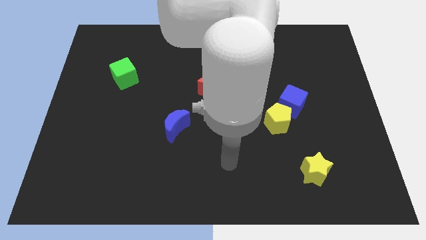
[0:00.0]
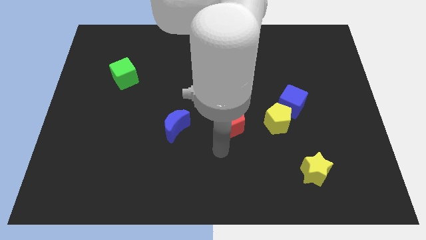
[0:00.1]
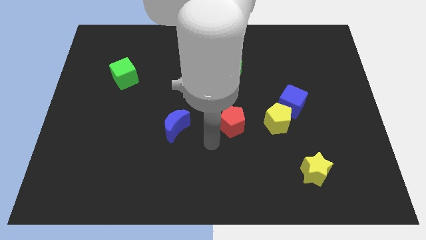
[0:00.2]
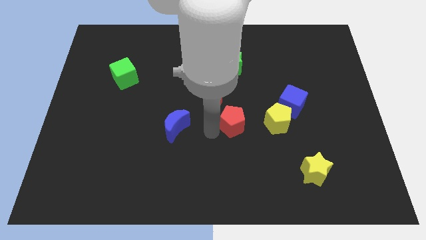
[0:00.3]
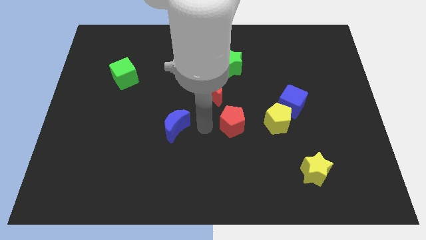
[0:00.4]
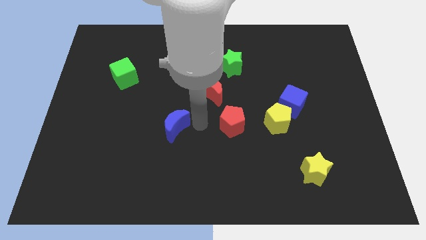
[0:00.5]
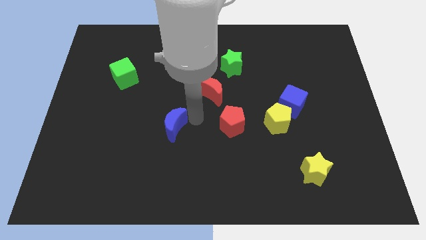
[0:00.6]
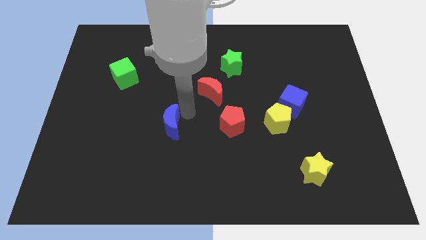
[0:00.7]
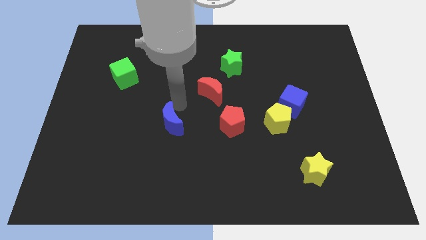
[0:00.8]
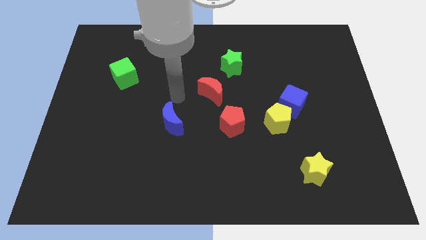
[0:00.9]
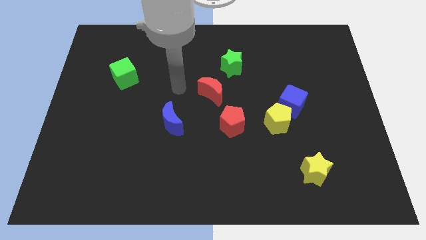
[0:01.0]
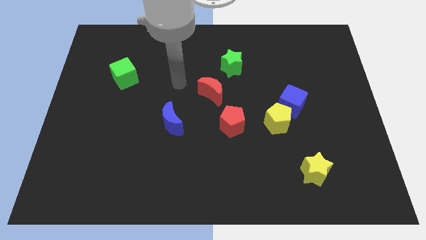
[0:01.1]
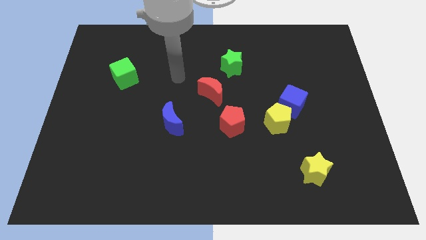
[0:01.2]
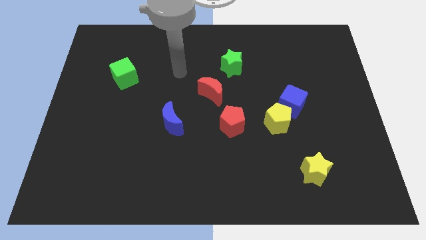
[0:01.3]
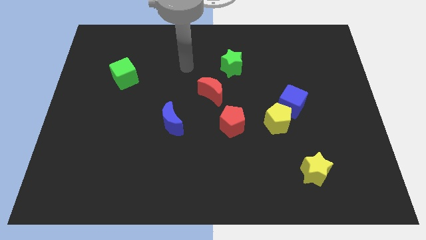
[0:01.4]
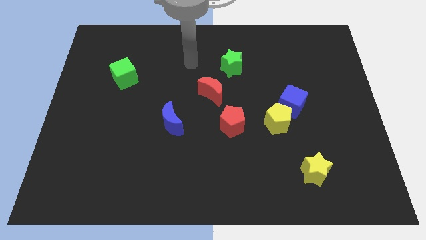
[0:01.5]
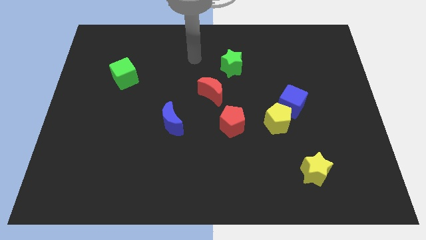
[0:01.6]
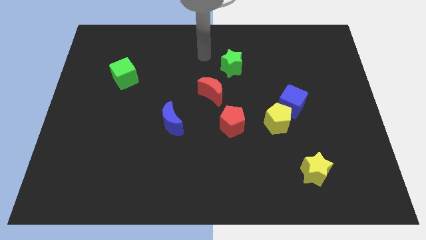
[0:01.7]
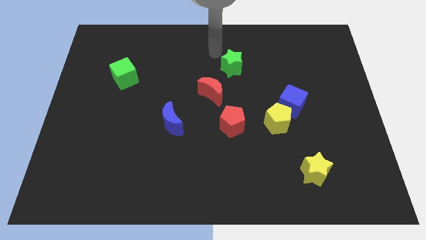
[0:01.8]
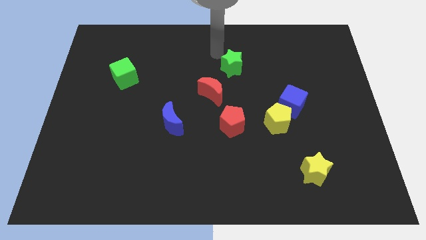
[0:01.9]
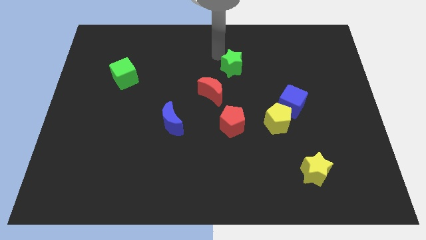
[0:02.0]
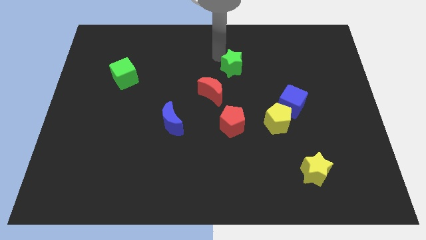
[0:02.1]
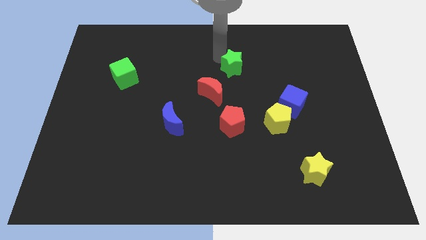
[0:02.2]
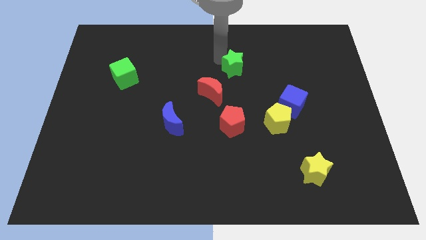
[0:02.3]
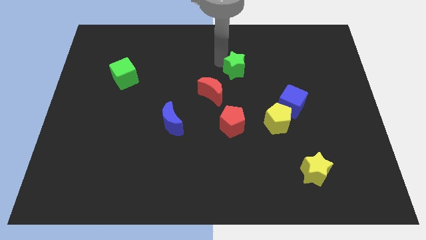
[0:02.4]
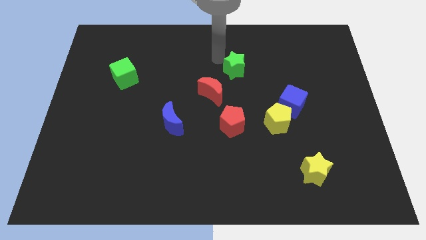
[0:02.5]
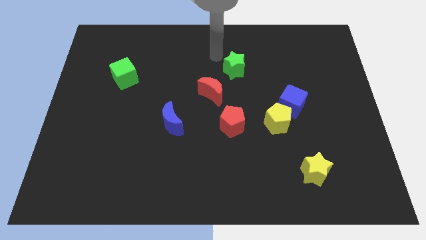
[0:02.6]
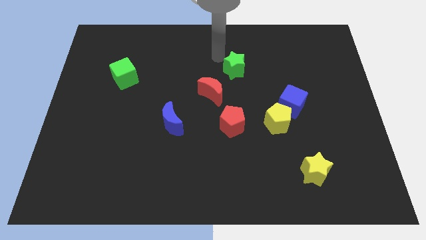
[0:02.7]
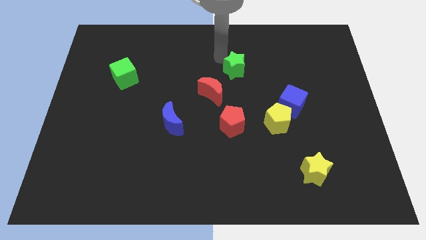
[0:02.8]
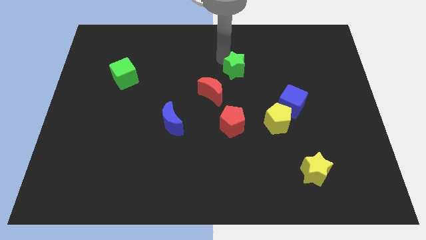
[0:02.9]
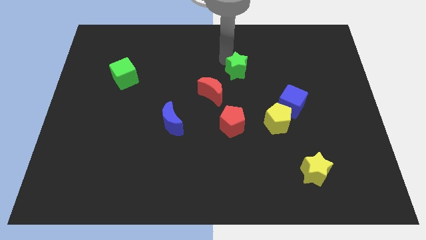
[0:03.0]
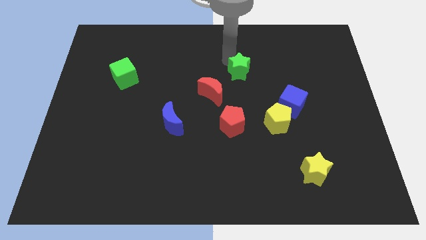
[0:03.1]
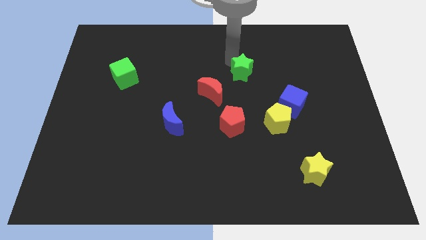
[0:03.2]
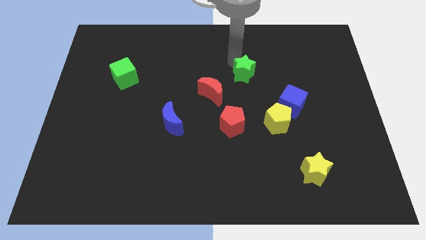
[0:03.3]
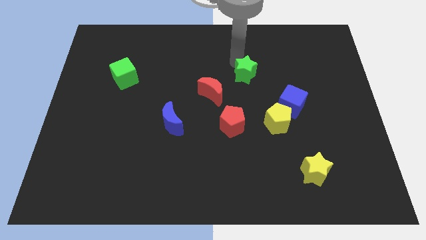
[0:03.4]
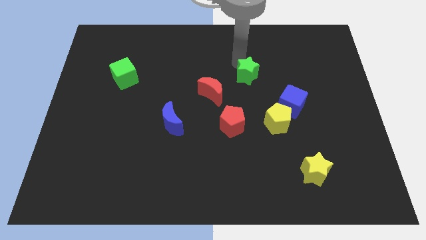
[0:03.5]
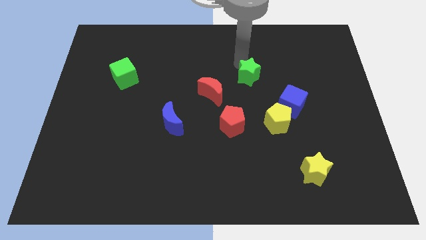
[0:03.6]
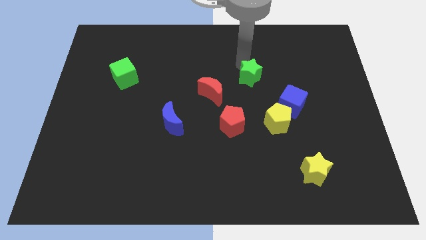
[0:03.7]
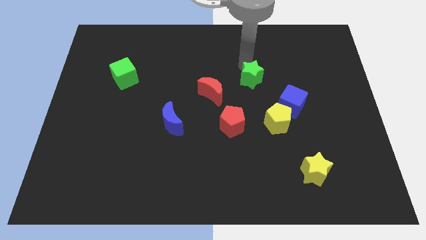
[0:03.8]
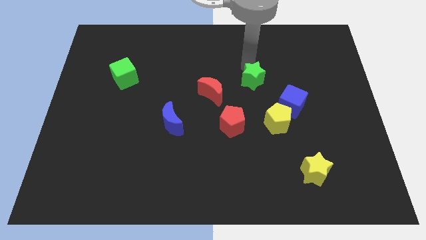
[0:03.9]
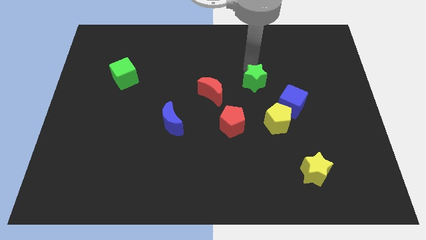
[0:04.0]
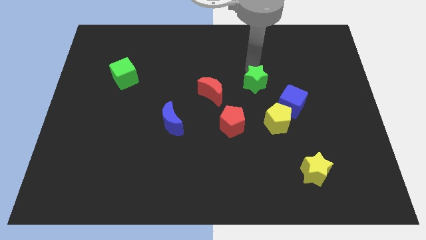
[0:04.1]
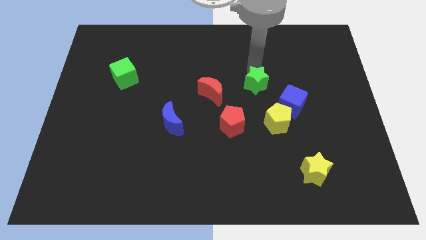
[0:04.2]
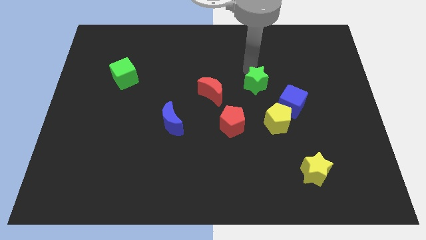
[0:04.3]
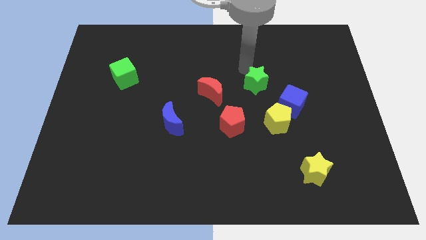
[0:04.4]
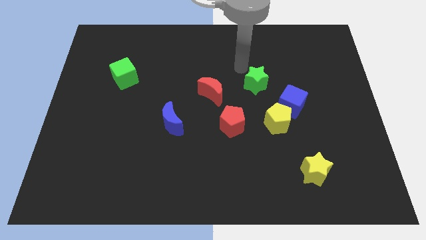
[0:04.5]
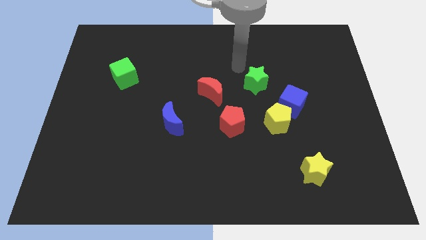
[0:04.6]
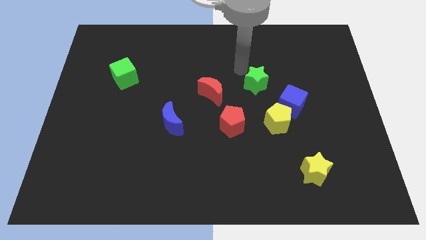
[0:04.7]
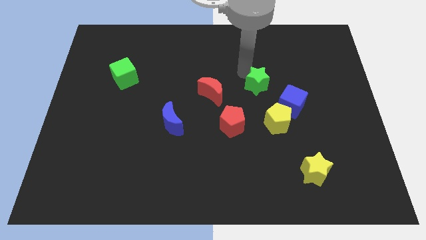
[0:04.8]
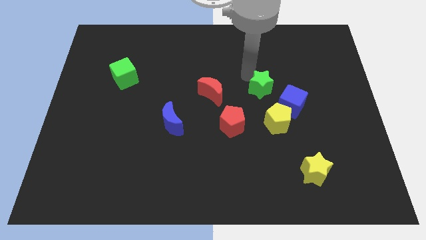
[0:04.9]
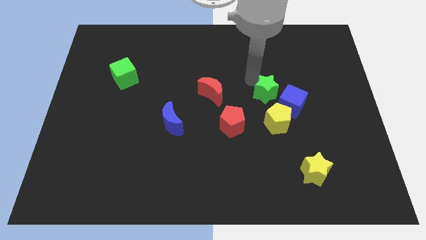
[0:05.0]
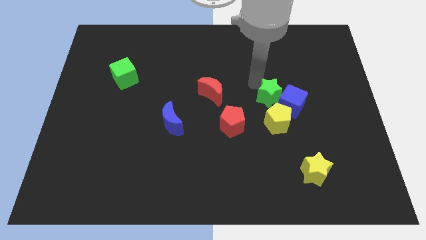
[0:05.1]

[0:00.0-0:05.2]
push the green star close to the blue cube

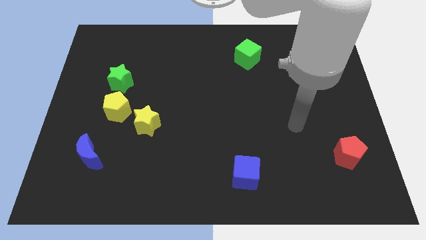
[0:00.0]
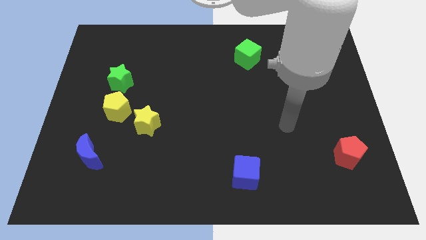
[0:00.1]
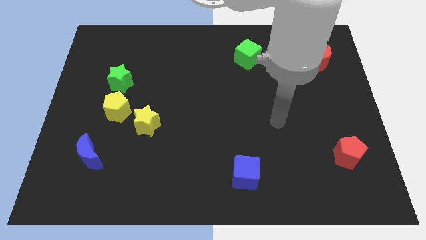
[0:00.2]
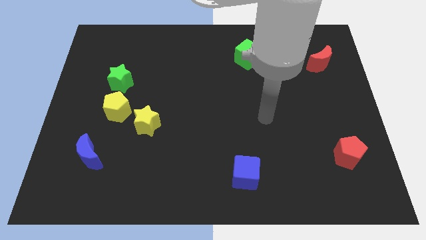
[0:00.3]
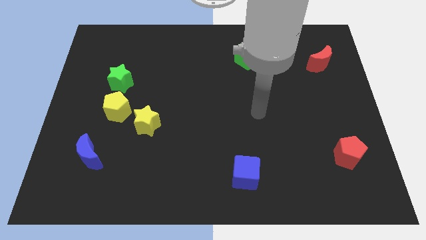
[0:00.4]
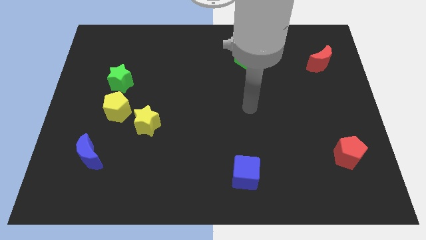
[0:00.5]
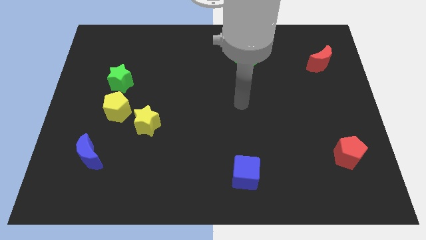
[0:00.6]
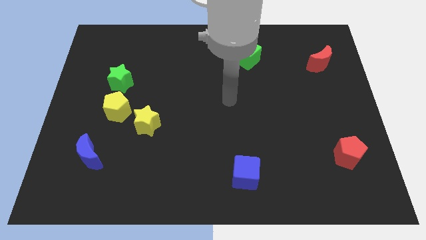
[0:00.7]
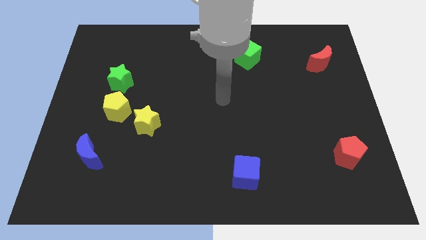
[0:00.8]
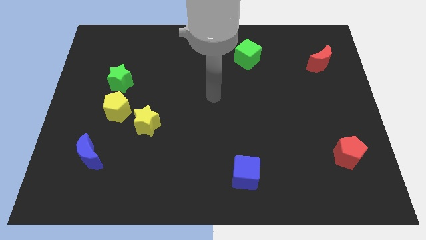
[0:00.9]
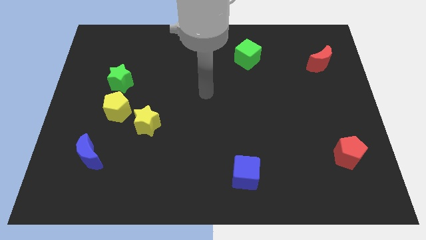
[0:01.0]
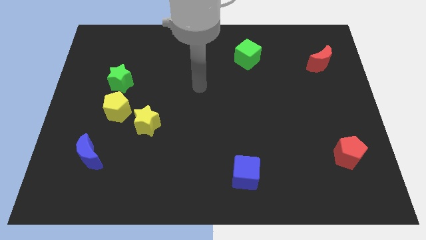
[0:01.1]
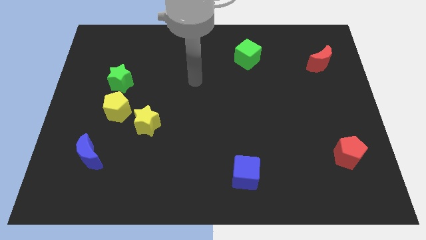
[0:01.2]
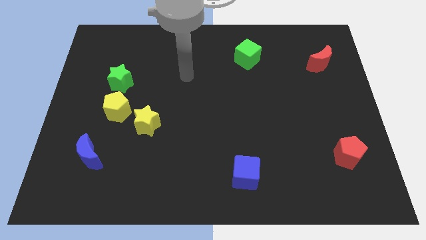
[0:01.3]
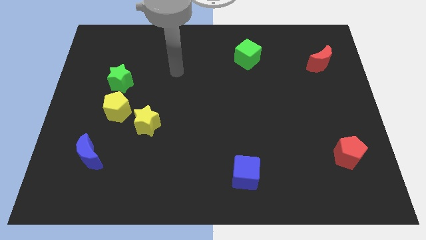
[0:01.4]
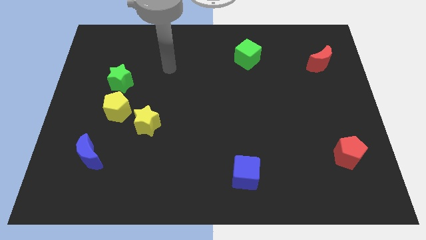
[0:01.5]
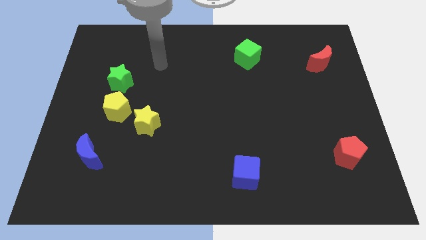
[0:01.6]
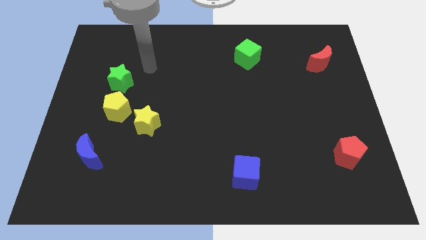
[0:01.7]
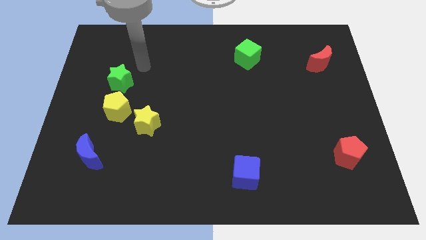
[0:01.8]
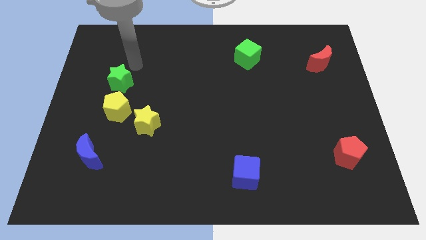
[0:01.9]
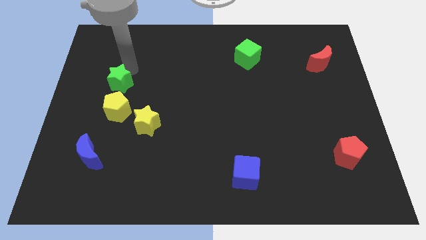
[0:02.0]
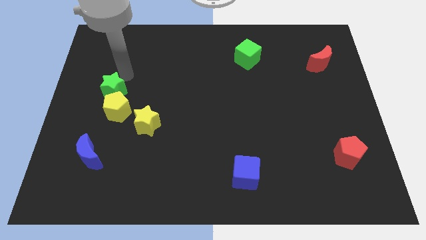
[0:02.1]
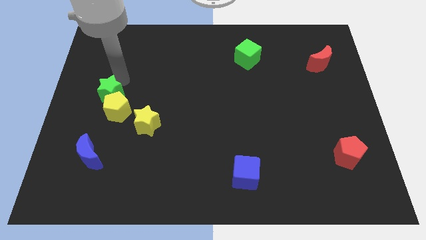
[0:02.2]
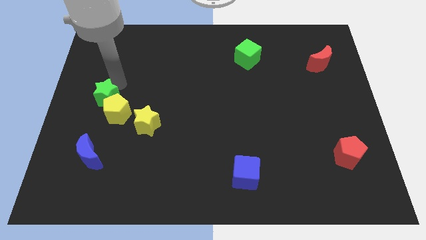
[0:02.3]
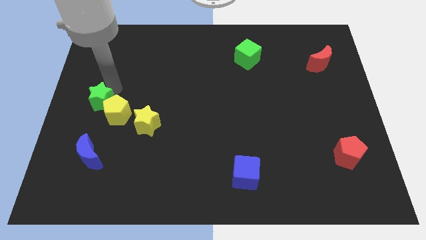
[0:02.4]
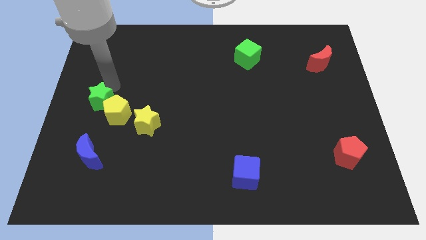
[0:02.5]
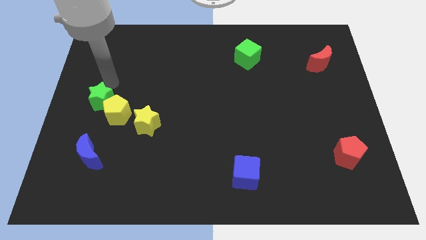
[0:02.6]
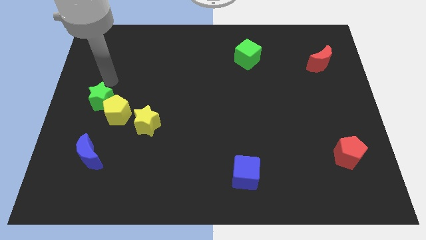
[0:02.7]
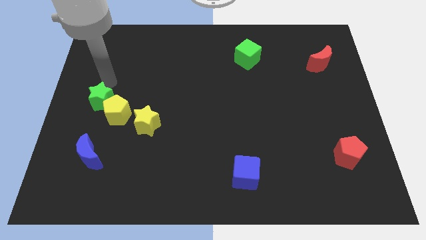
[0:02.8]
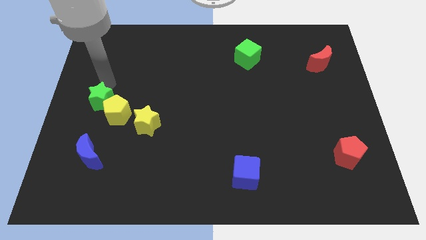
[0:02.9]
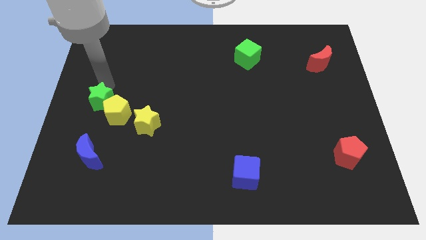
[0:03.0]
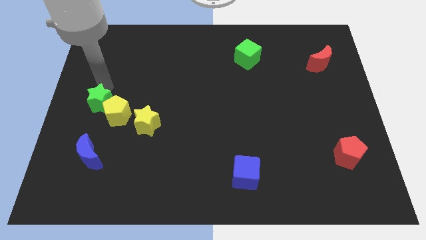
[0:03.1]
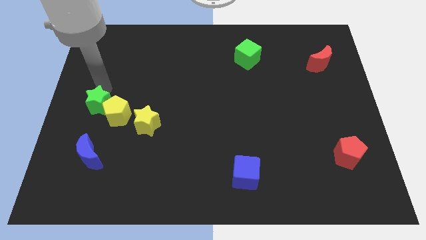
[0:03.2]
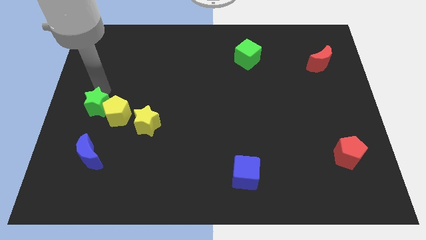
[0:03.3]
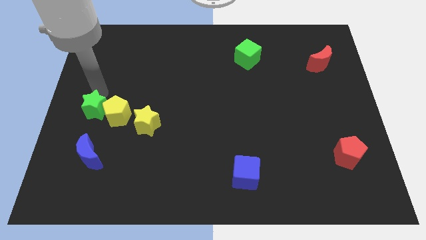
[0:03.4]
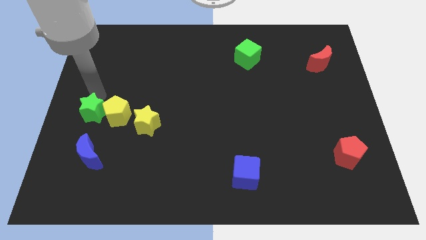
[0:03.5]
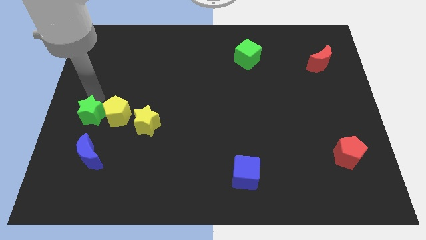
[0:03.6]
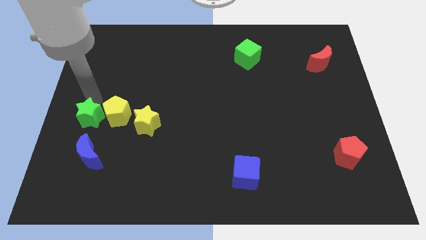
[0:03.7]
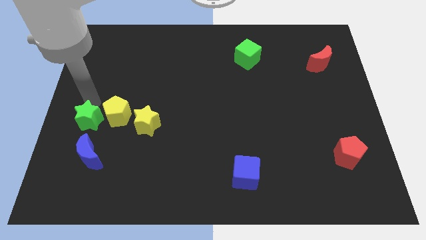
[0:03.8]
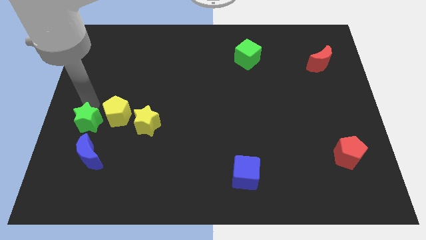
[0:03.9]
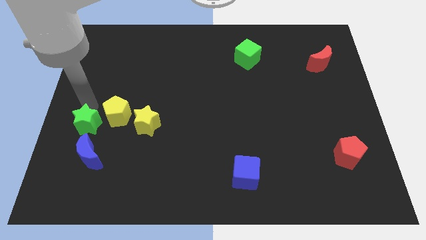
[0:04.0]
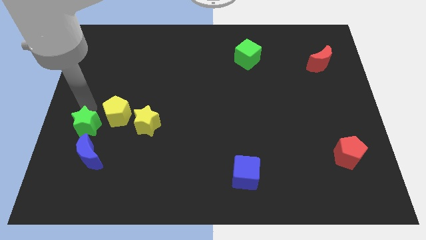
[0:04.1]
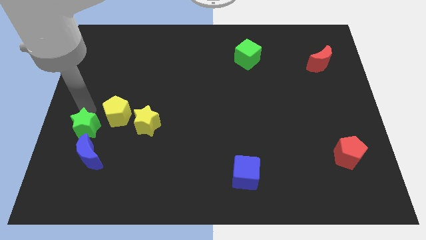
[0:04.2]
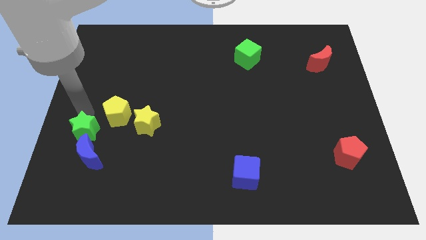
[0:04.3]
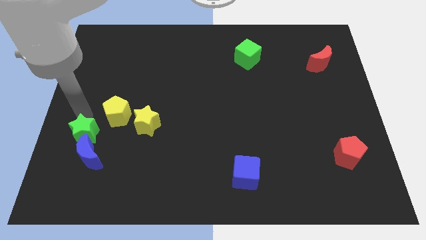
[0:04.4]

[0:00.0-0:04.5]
slide the green star to the blue moon
